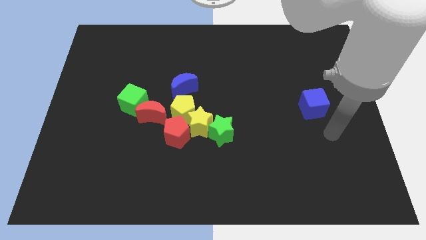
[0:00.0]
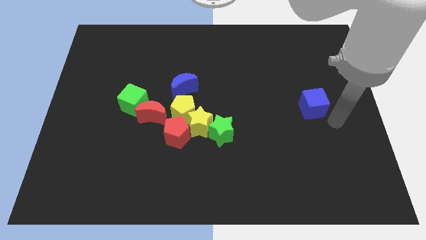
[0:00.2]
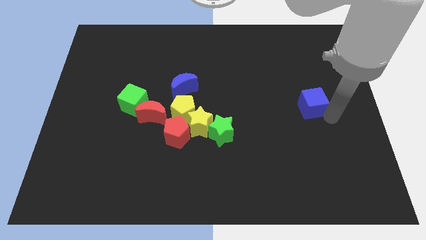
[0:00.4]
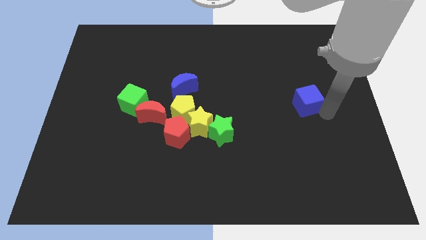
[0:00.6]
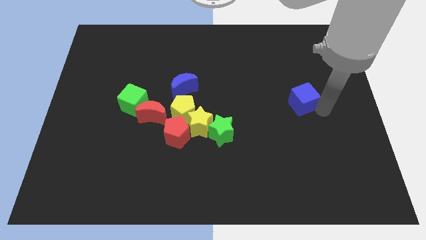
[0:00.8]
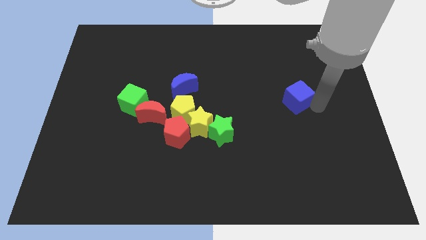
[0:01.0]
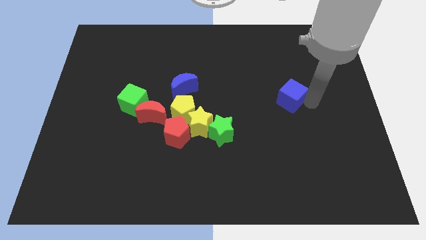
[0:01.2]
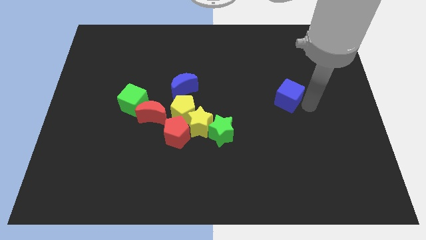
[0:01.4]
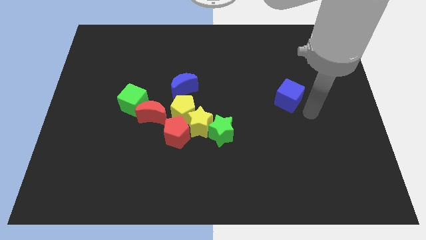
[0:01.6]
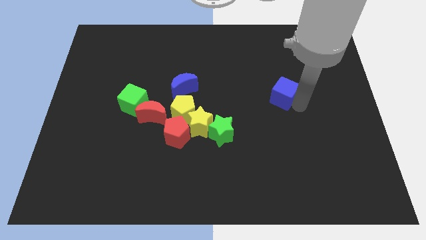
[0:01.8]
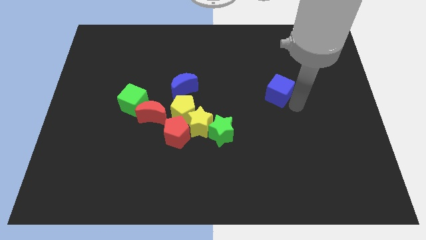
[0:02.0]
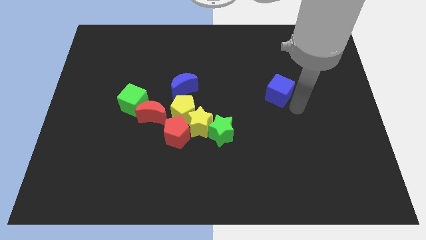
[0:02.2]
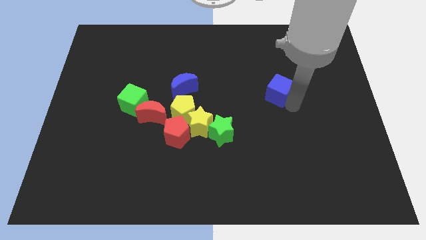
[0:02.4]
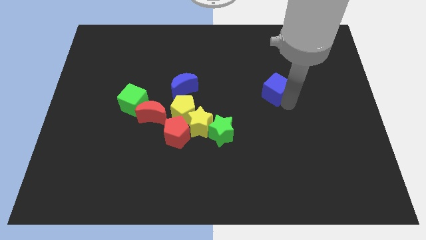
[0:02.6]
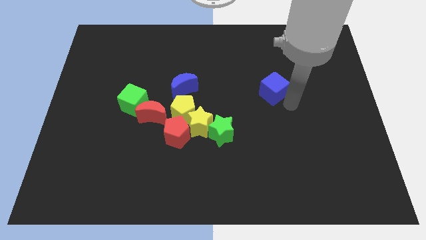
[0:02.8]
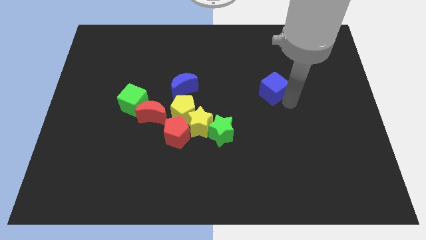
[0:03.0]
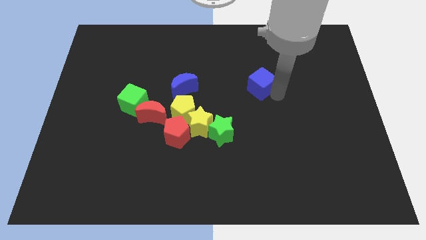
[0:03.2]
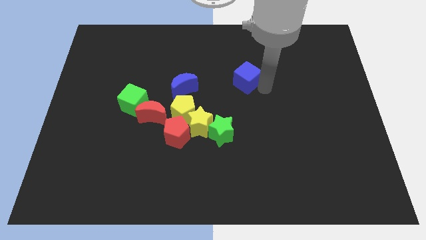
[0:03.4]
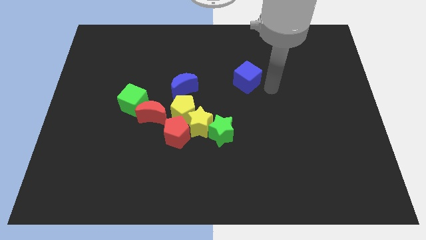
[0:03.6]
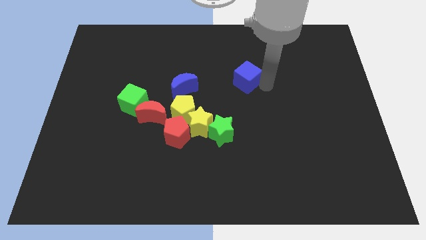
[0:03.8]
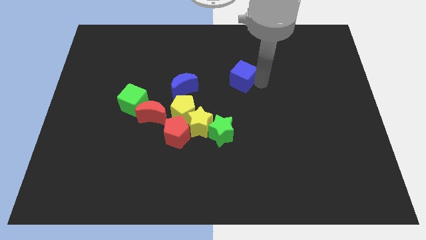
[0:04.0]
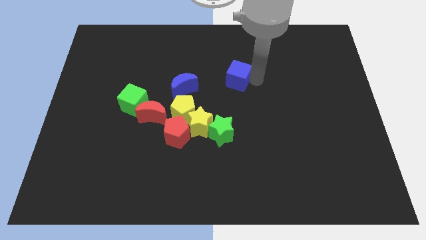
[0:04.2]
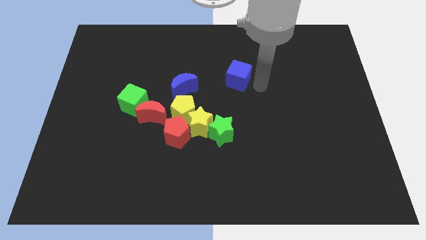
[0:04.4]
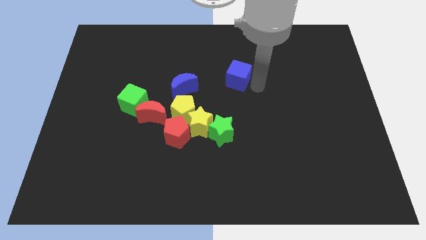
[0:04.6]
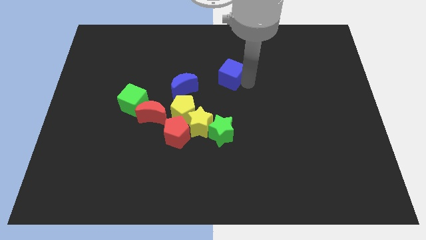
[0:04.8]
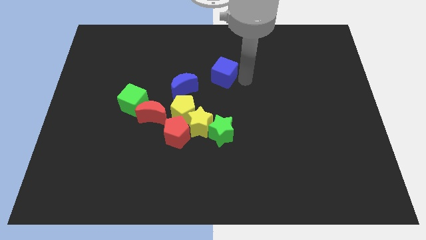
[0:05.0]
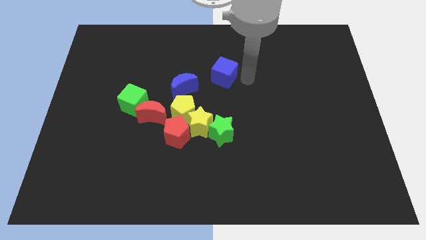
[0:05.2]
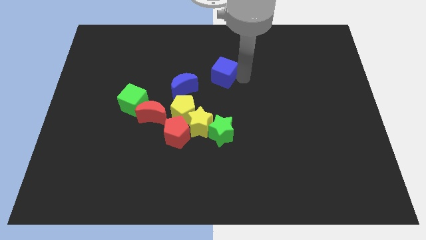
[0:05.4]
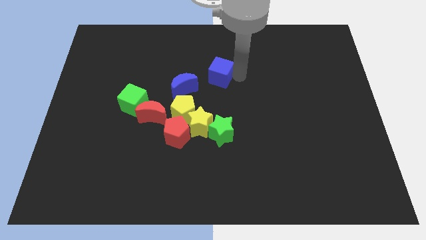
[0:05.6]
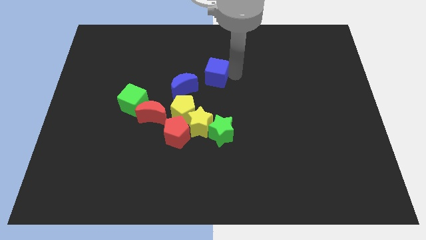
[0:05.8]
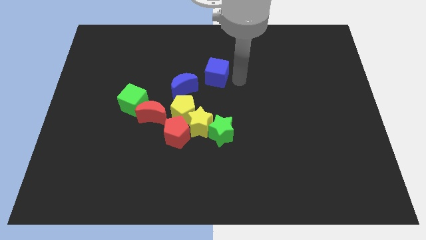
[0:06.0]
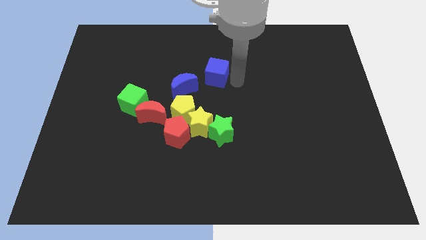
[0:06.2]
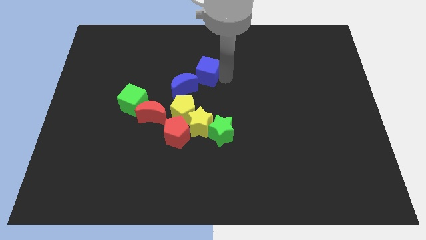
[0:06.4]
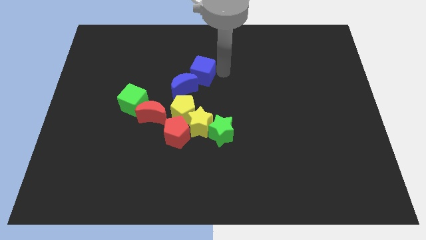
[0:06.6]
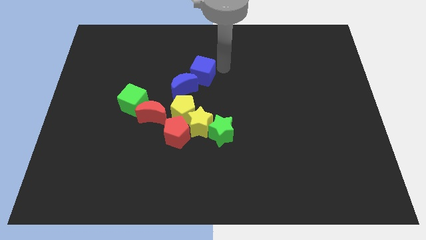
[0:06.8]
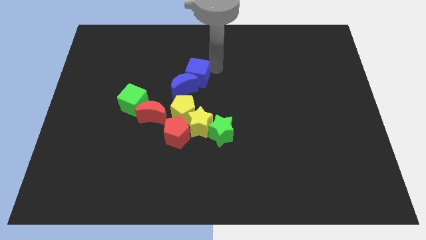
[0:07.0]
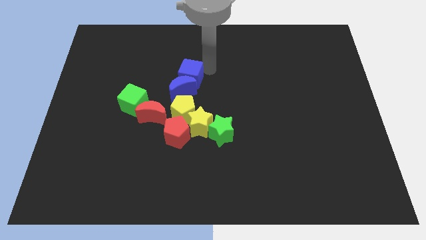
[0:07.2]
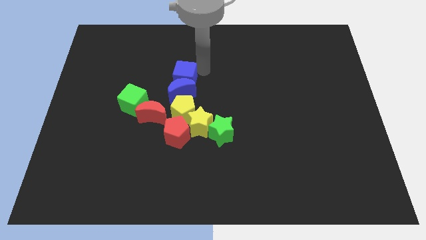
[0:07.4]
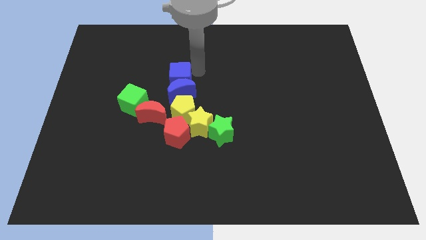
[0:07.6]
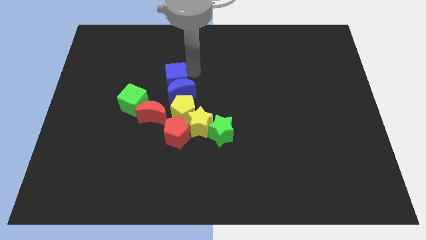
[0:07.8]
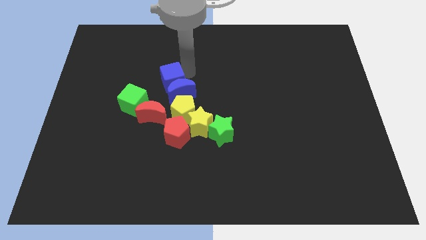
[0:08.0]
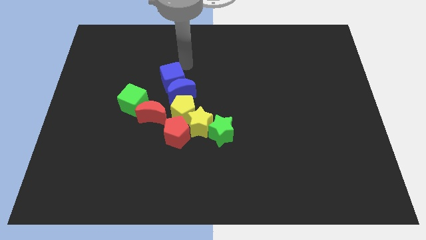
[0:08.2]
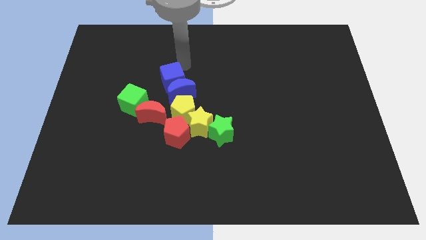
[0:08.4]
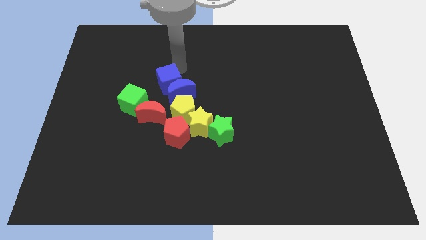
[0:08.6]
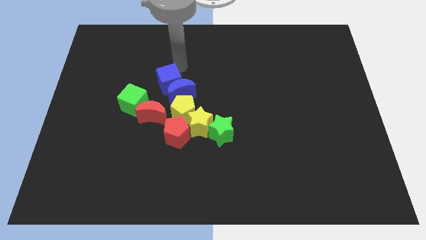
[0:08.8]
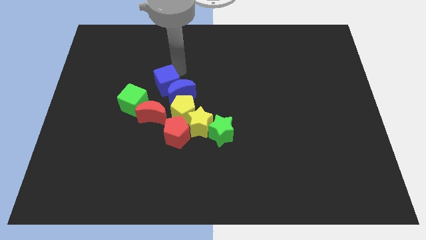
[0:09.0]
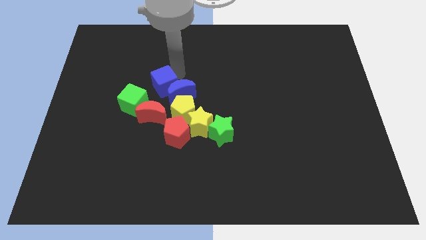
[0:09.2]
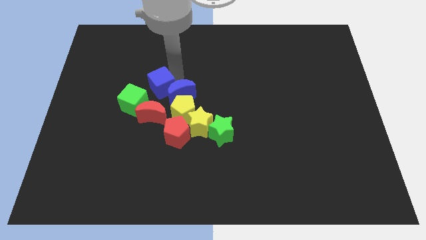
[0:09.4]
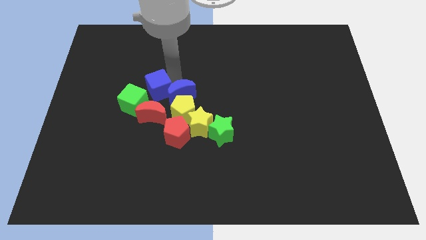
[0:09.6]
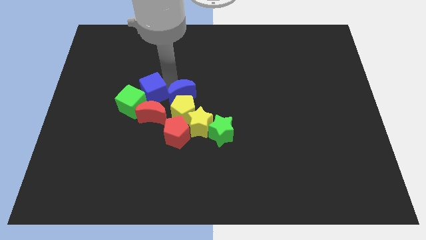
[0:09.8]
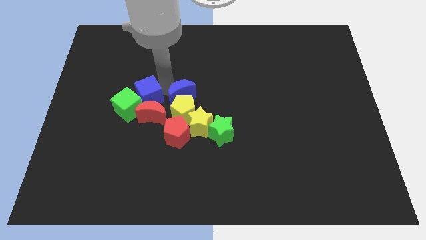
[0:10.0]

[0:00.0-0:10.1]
move the blue cube next to the red moon

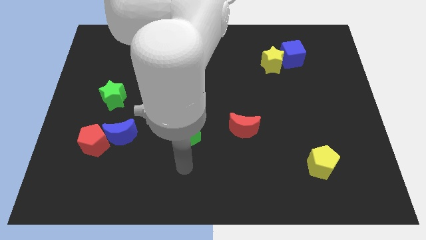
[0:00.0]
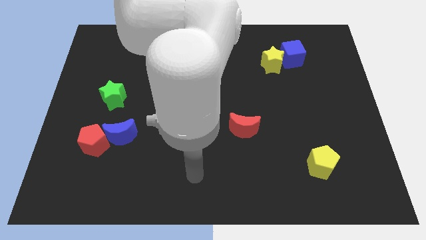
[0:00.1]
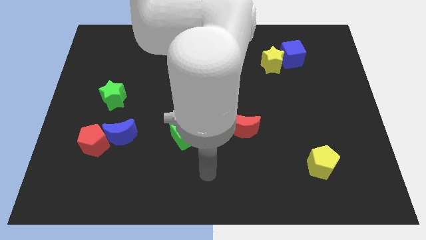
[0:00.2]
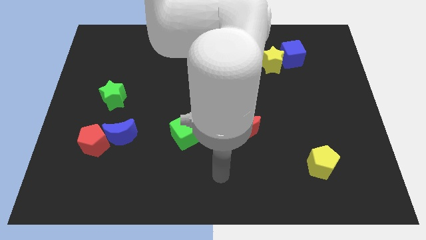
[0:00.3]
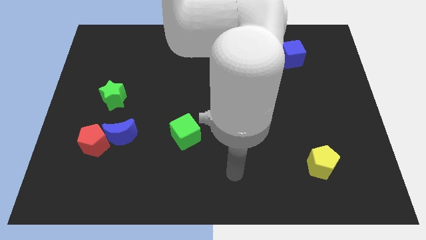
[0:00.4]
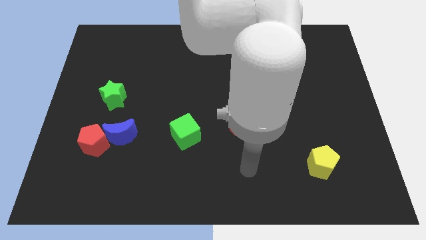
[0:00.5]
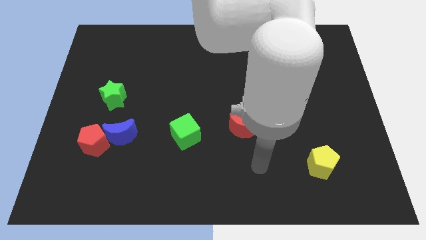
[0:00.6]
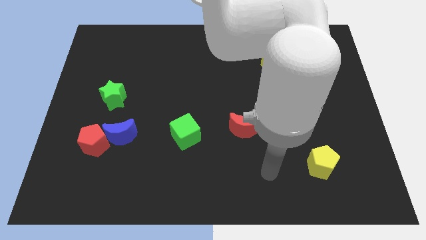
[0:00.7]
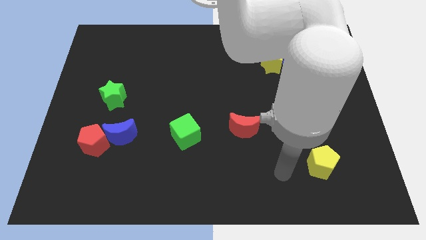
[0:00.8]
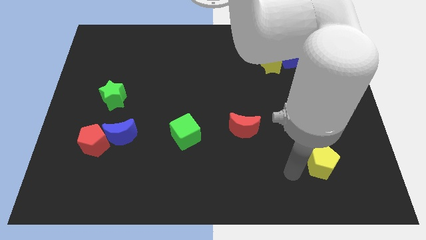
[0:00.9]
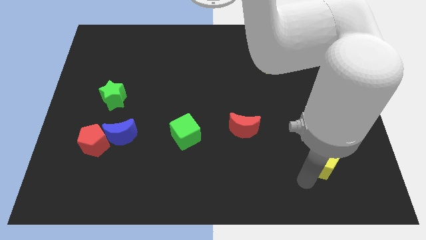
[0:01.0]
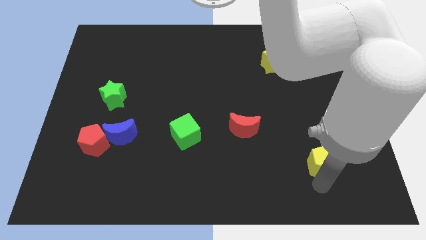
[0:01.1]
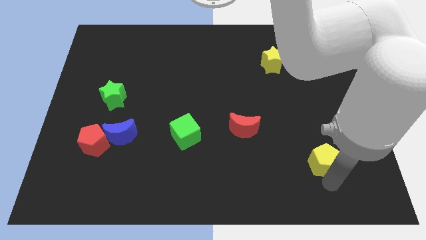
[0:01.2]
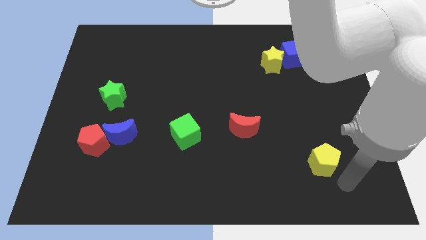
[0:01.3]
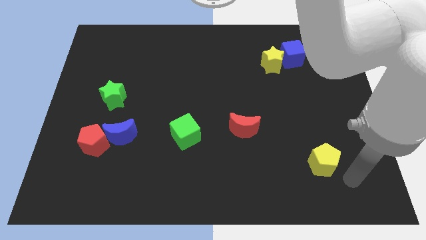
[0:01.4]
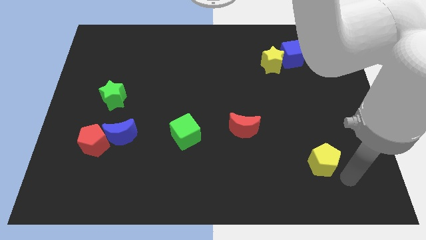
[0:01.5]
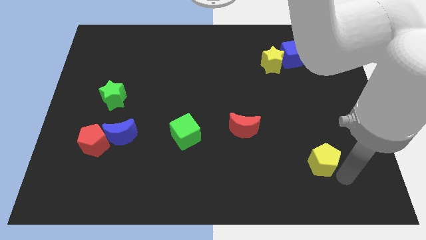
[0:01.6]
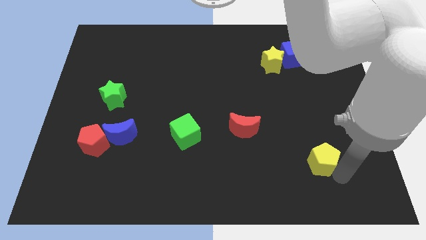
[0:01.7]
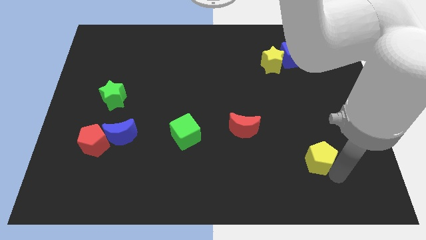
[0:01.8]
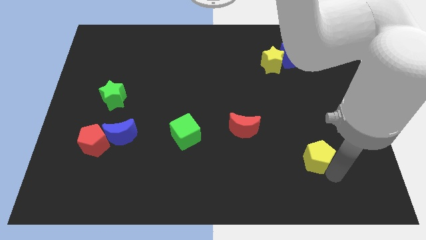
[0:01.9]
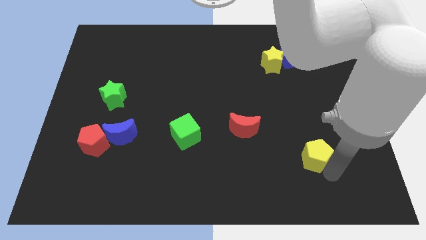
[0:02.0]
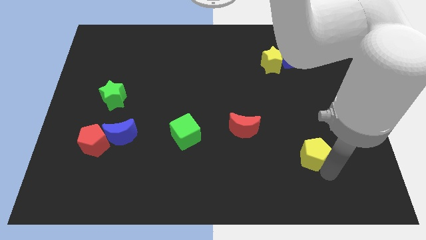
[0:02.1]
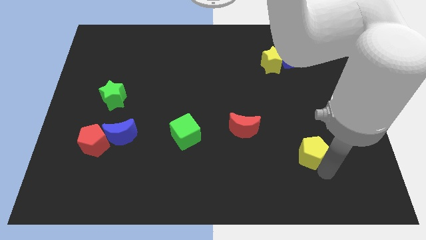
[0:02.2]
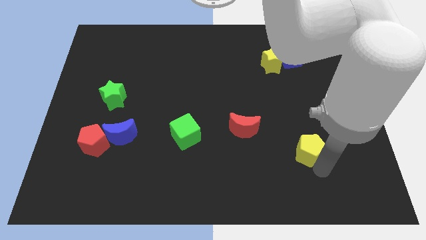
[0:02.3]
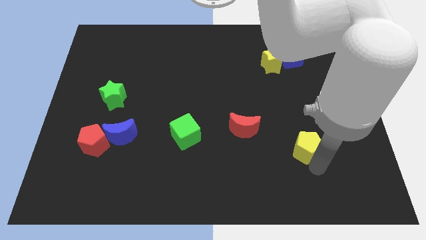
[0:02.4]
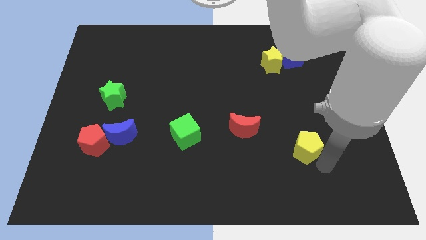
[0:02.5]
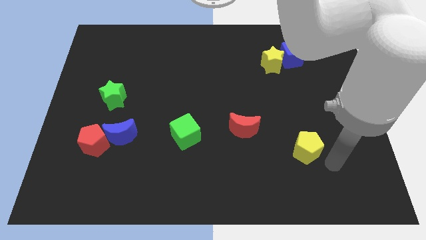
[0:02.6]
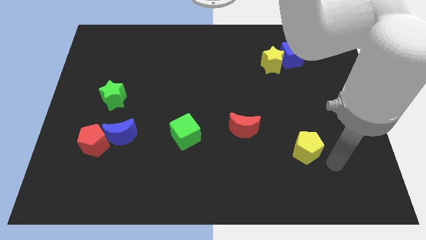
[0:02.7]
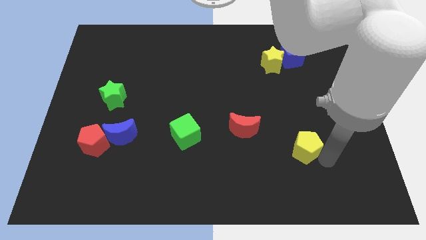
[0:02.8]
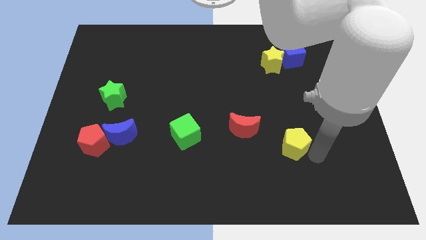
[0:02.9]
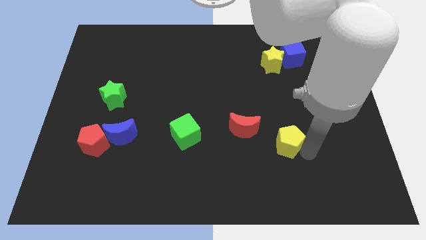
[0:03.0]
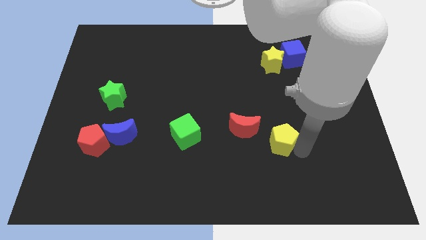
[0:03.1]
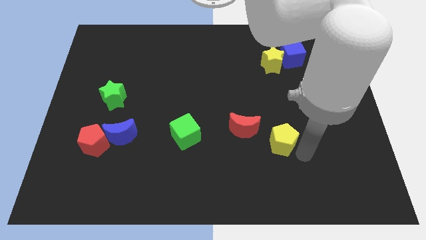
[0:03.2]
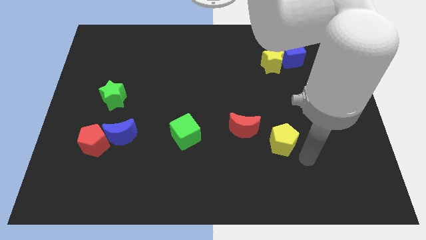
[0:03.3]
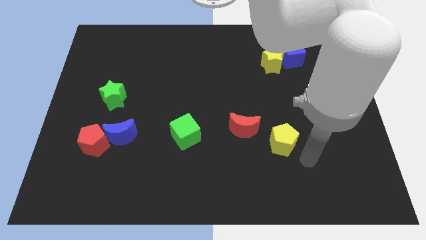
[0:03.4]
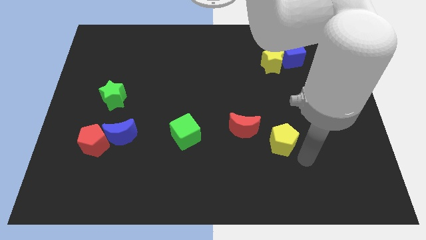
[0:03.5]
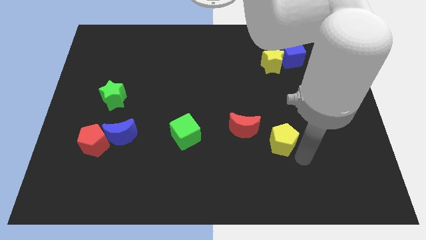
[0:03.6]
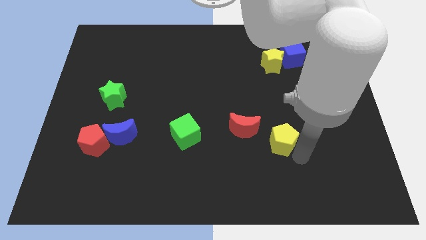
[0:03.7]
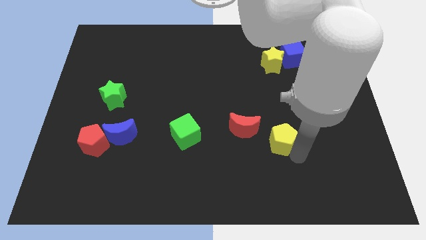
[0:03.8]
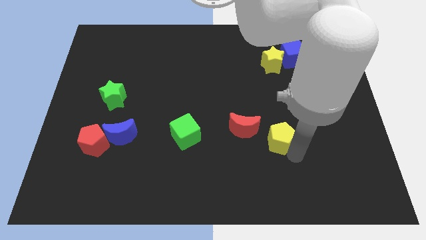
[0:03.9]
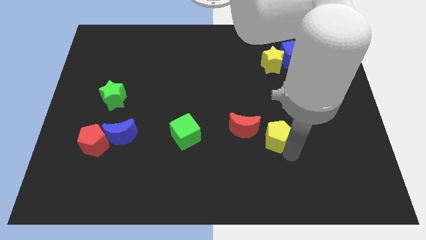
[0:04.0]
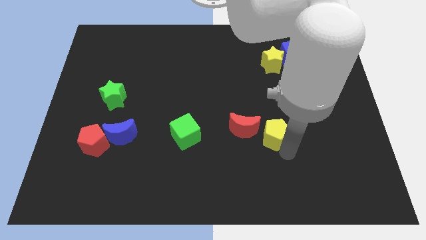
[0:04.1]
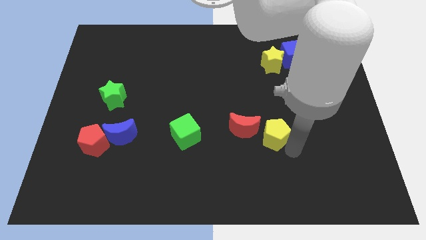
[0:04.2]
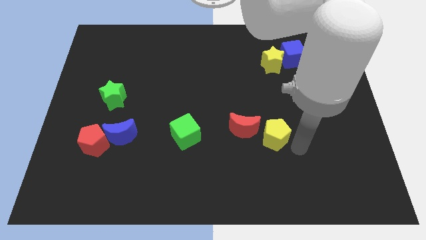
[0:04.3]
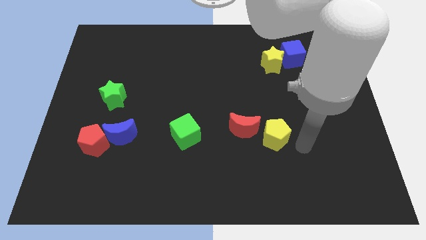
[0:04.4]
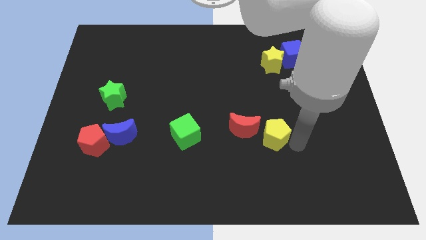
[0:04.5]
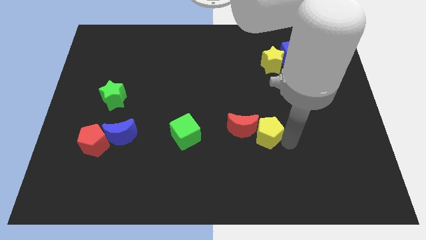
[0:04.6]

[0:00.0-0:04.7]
slide the yellow pentagon close to the red moon
